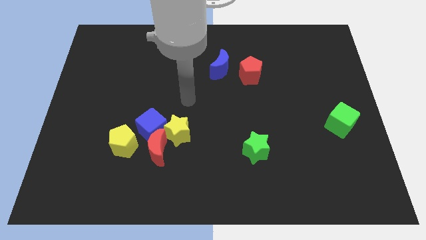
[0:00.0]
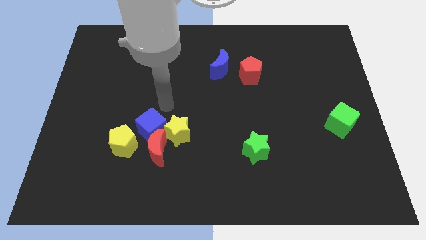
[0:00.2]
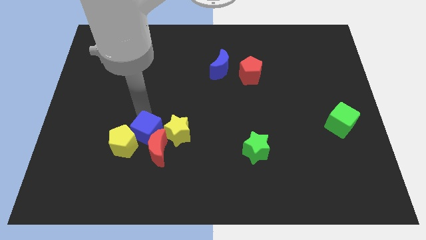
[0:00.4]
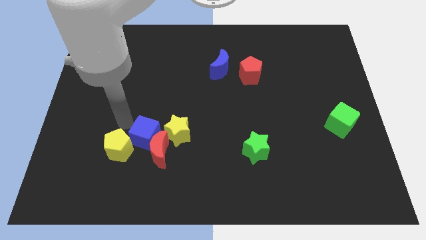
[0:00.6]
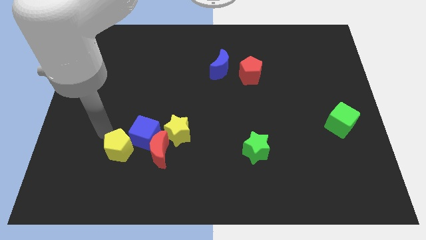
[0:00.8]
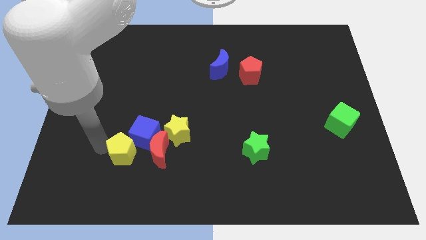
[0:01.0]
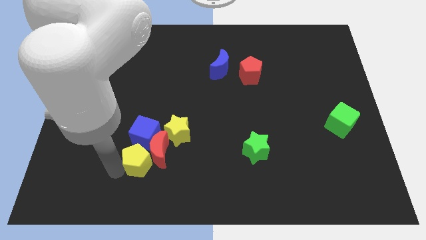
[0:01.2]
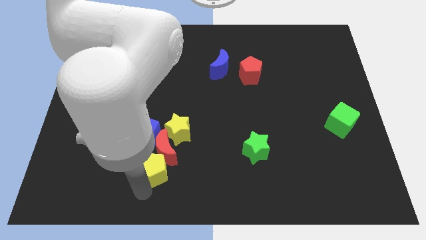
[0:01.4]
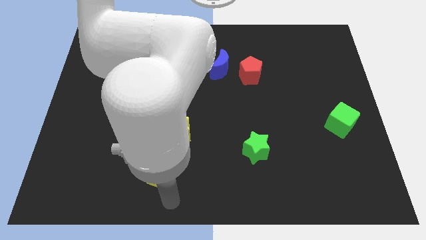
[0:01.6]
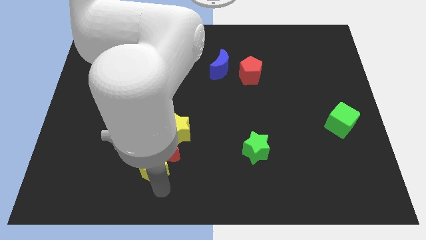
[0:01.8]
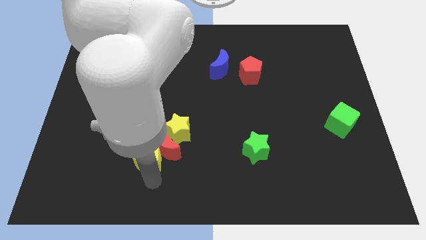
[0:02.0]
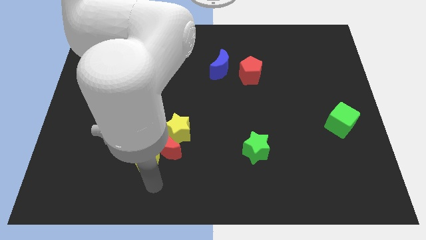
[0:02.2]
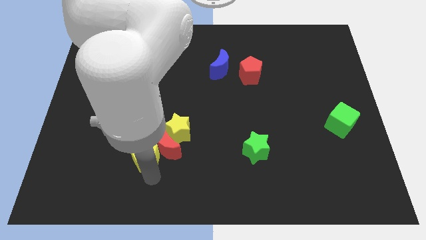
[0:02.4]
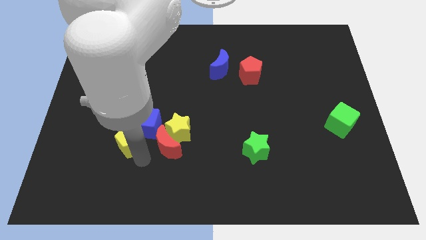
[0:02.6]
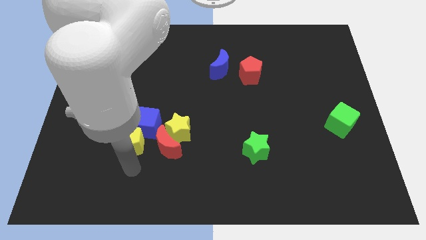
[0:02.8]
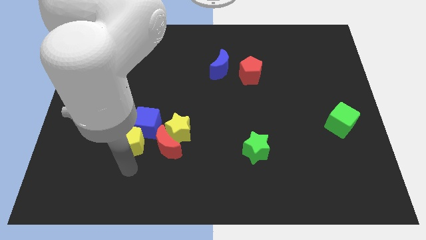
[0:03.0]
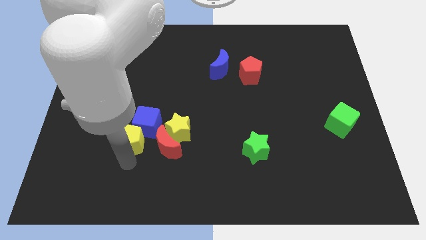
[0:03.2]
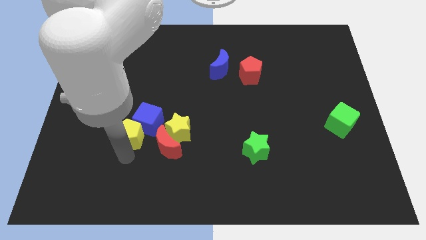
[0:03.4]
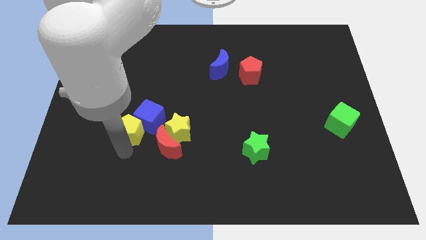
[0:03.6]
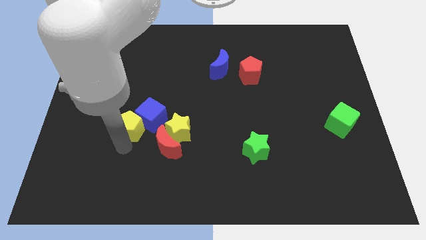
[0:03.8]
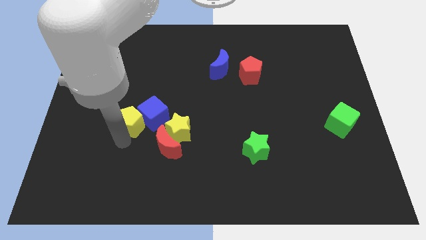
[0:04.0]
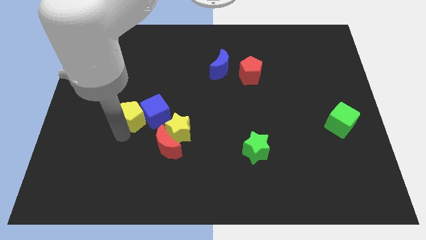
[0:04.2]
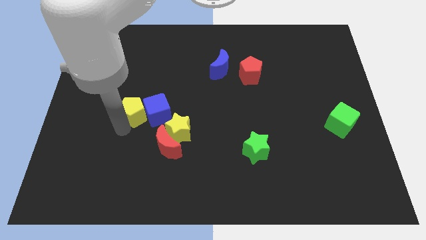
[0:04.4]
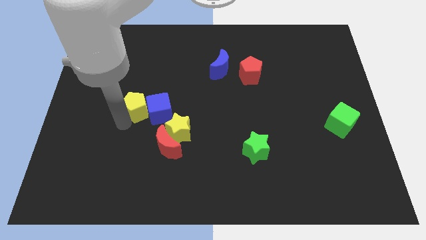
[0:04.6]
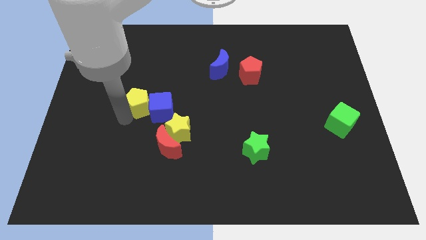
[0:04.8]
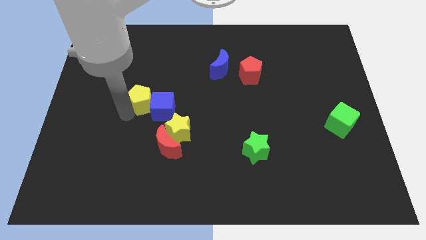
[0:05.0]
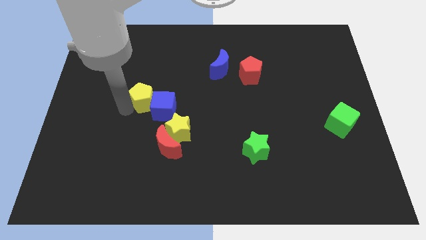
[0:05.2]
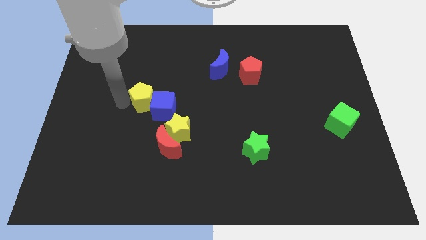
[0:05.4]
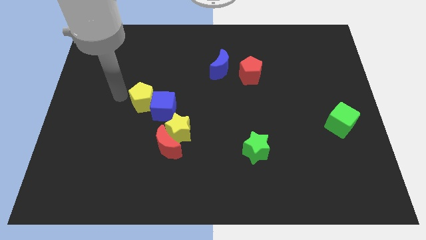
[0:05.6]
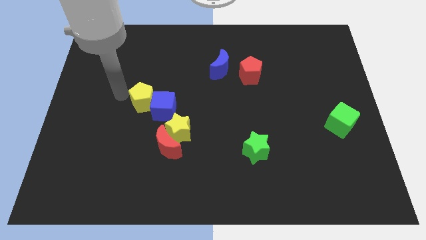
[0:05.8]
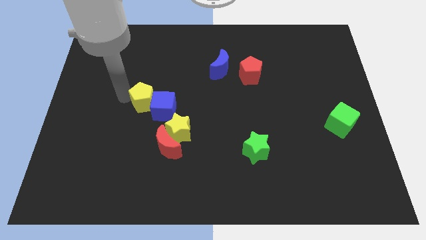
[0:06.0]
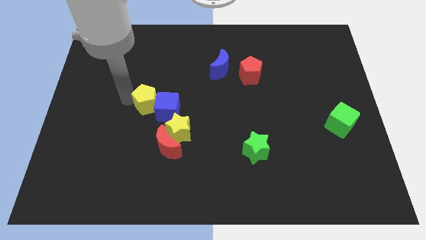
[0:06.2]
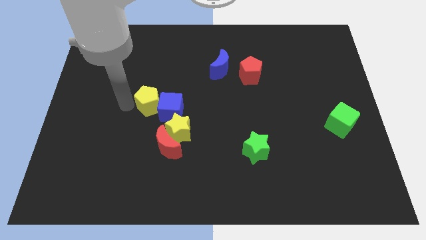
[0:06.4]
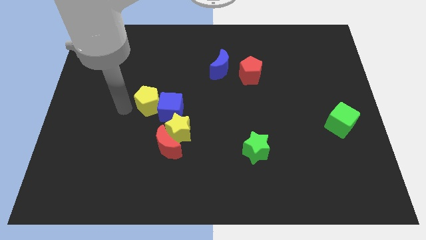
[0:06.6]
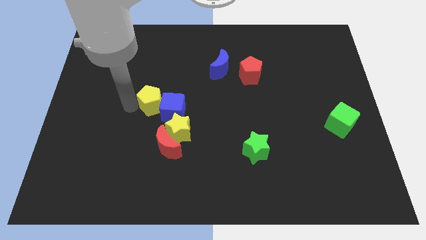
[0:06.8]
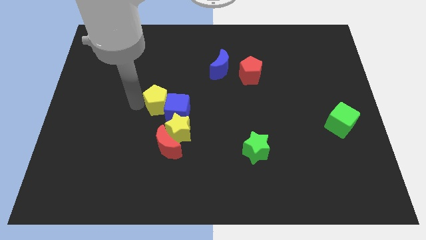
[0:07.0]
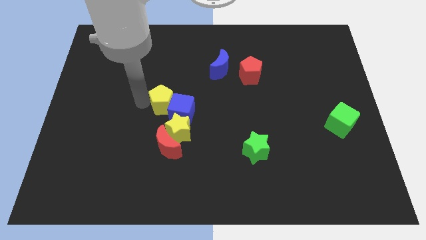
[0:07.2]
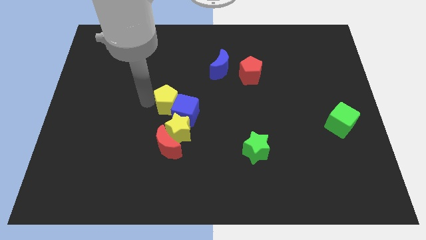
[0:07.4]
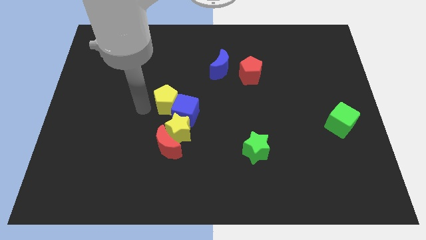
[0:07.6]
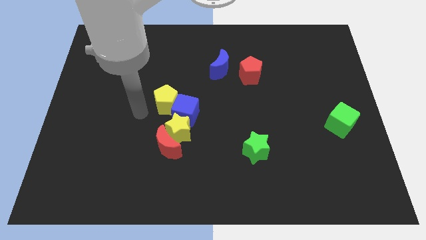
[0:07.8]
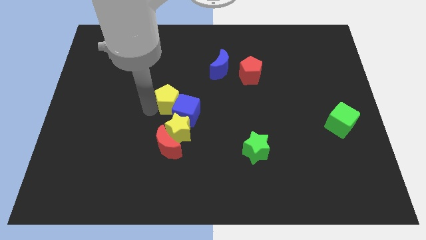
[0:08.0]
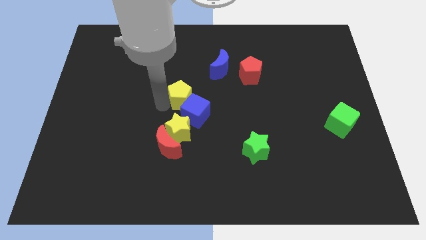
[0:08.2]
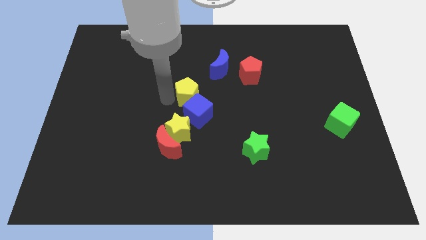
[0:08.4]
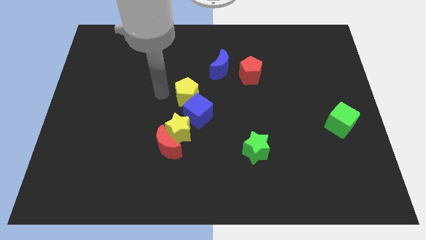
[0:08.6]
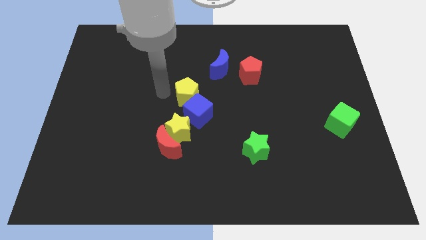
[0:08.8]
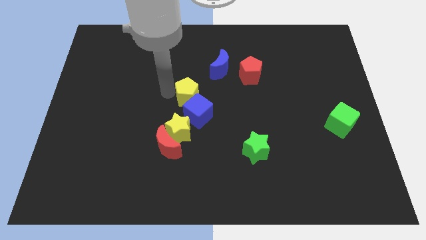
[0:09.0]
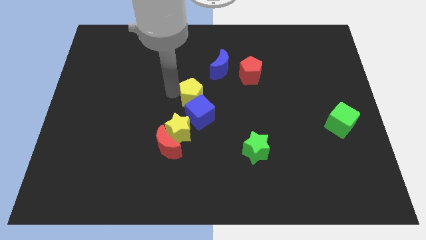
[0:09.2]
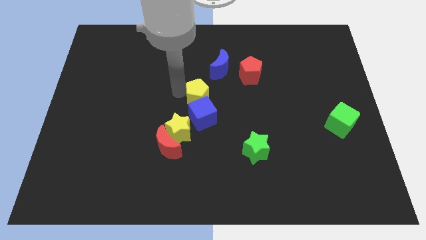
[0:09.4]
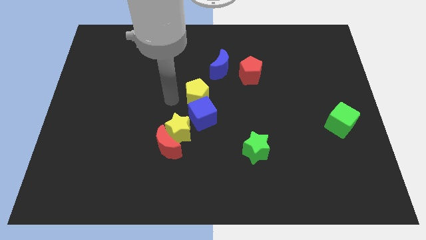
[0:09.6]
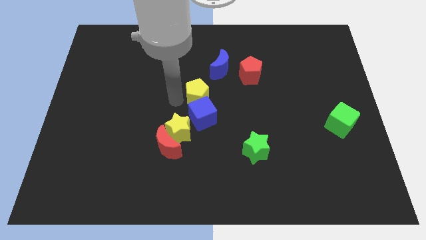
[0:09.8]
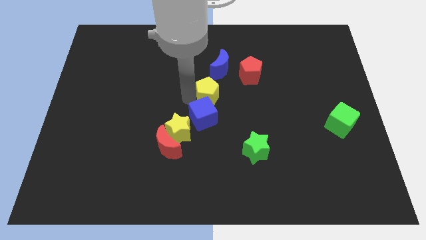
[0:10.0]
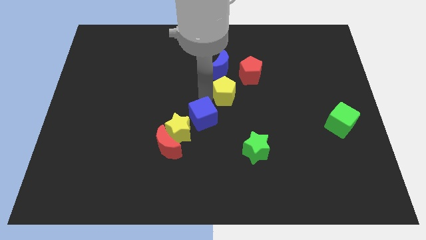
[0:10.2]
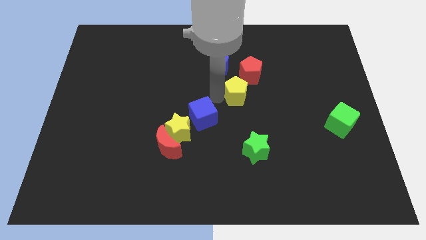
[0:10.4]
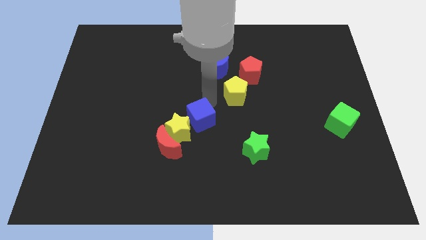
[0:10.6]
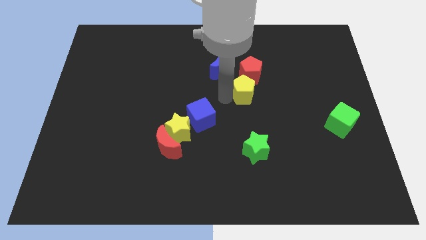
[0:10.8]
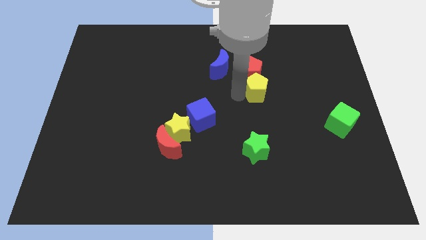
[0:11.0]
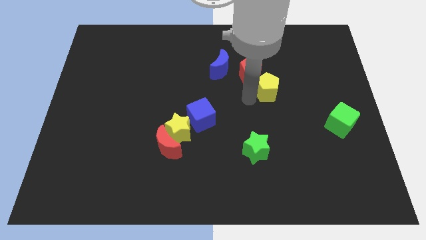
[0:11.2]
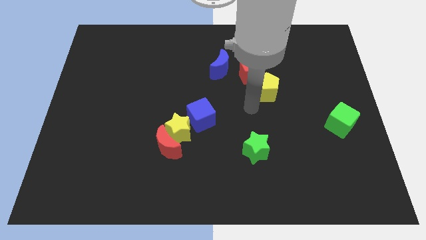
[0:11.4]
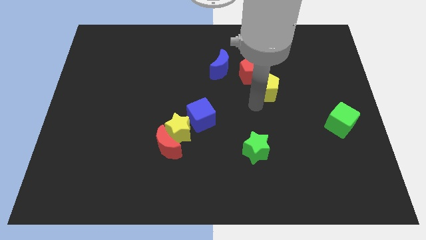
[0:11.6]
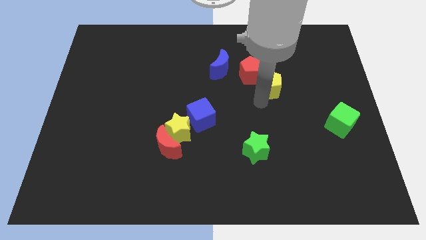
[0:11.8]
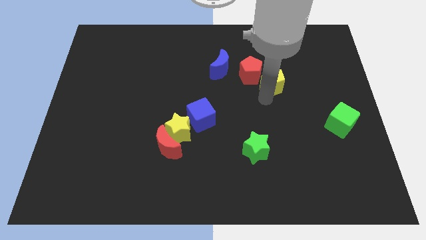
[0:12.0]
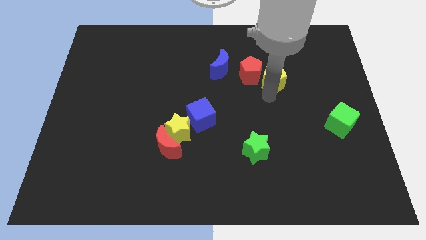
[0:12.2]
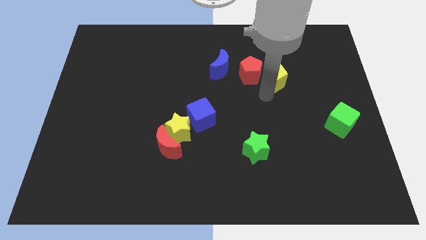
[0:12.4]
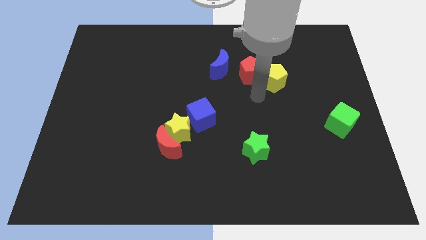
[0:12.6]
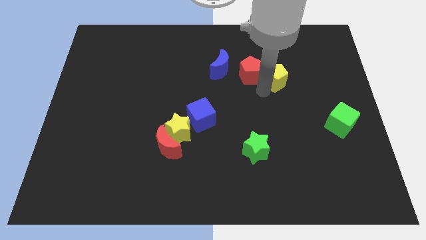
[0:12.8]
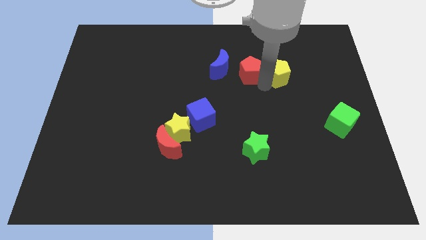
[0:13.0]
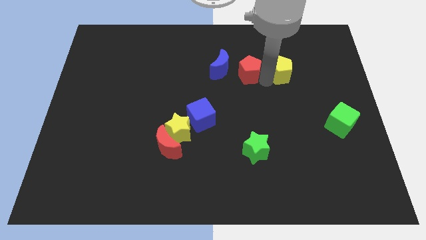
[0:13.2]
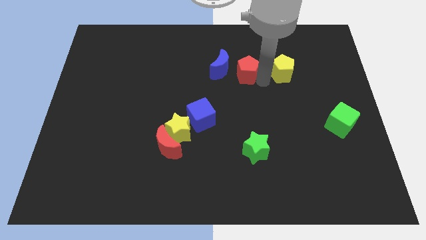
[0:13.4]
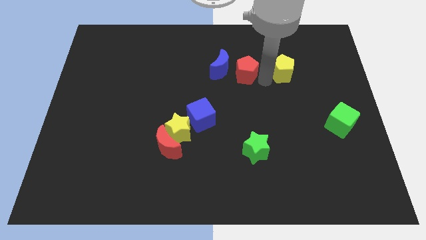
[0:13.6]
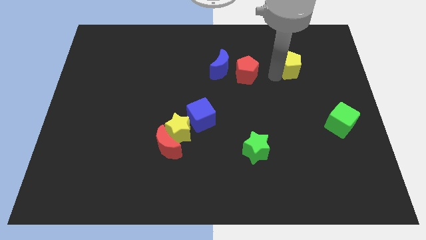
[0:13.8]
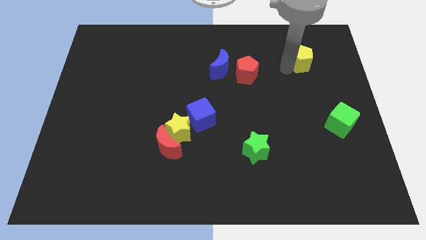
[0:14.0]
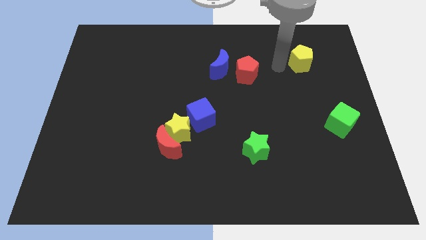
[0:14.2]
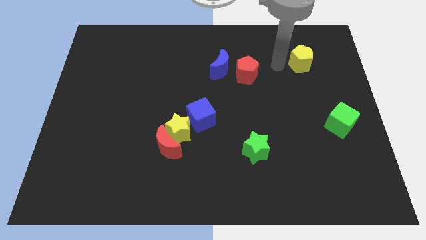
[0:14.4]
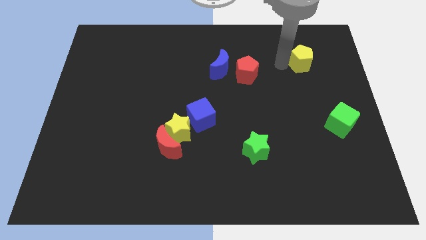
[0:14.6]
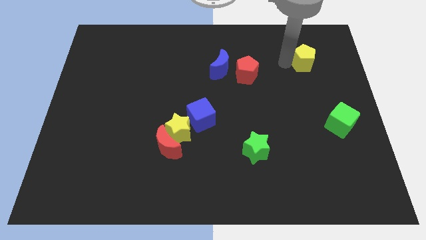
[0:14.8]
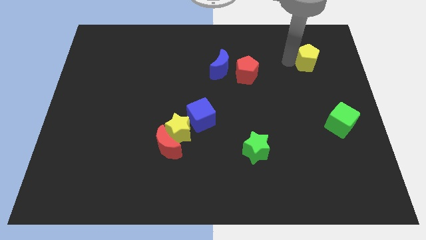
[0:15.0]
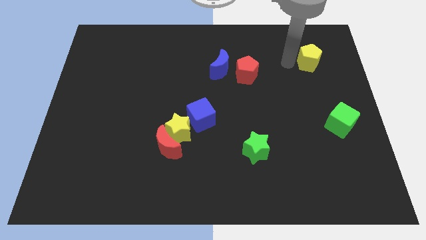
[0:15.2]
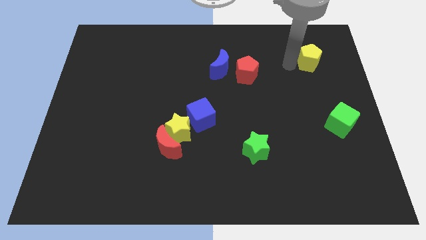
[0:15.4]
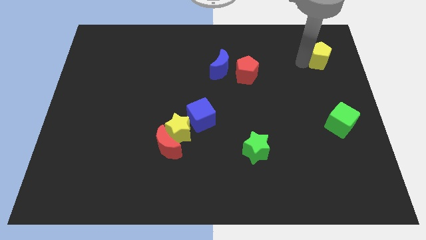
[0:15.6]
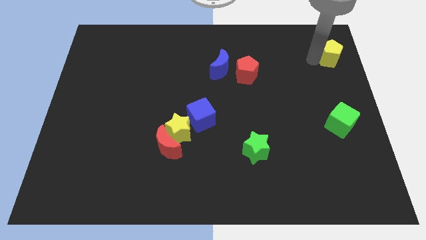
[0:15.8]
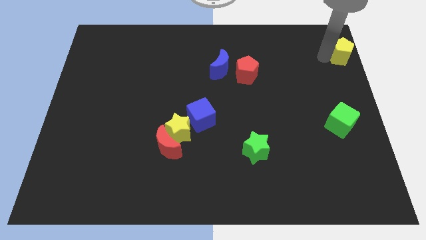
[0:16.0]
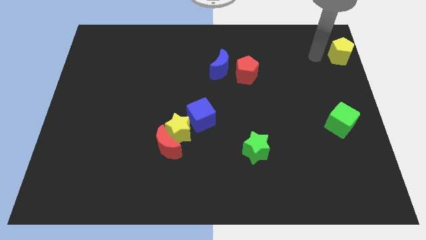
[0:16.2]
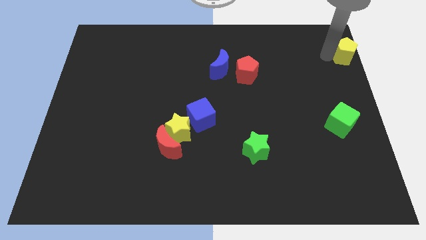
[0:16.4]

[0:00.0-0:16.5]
slide the yellow pentagon to the top right of the board
